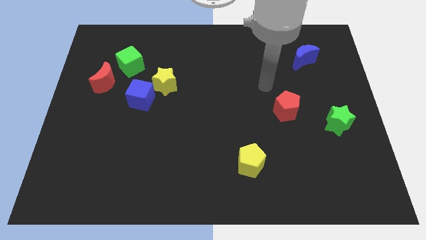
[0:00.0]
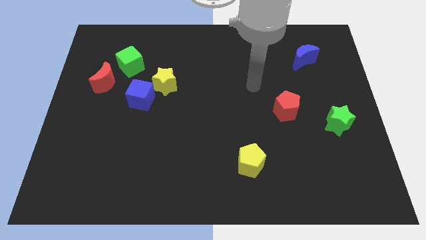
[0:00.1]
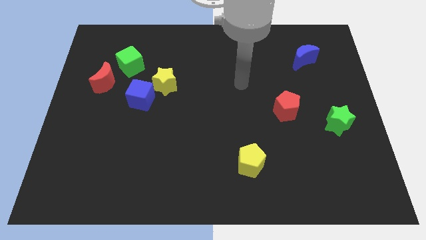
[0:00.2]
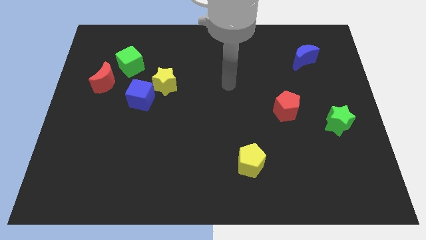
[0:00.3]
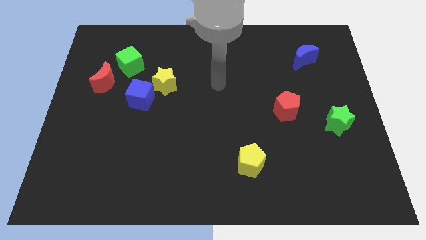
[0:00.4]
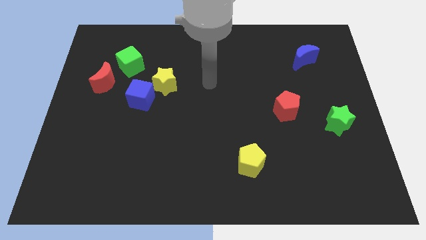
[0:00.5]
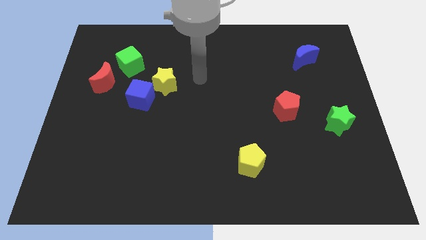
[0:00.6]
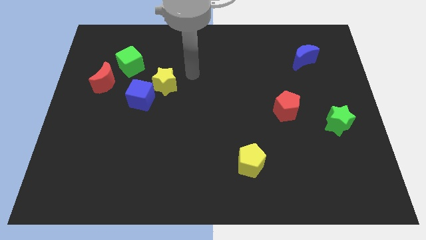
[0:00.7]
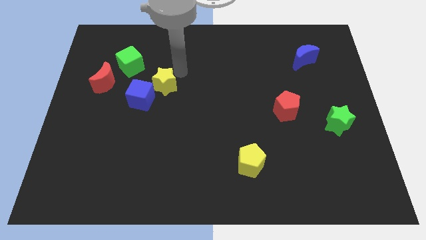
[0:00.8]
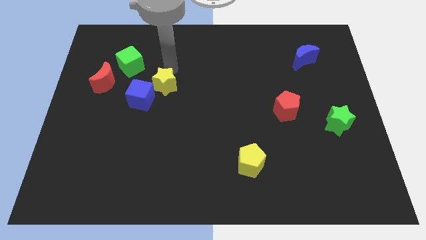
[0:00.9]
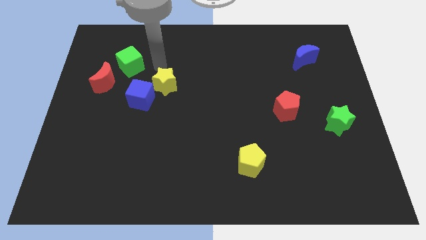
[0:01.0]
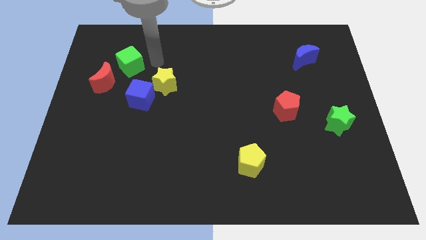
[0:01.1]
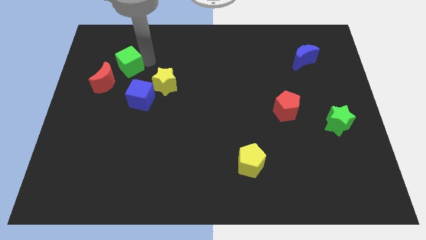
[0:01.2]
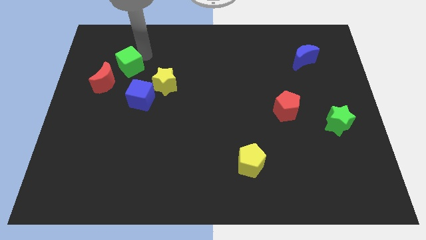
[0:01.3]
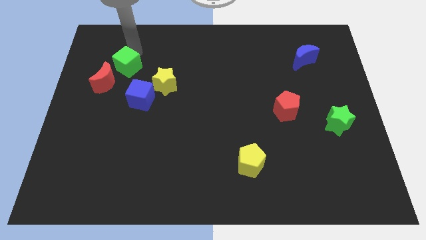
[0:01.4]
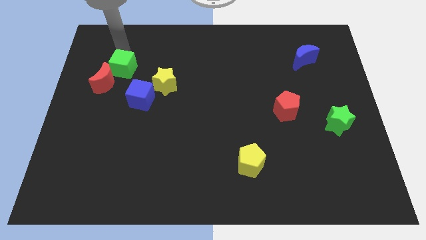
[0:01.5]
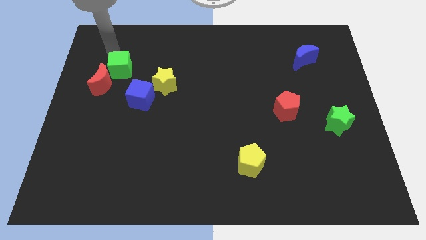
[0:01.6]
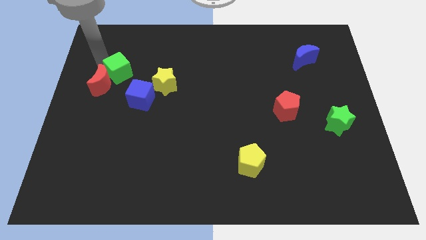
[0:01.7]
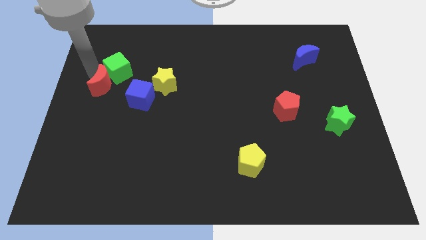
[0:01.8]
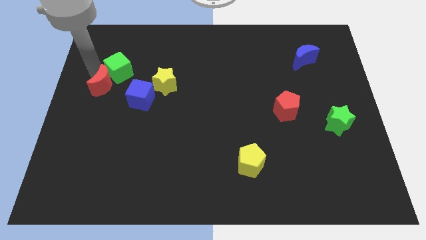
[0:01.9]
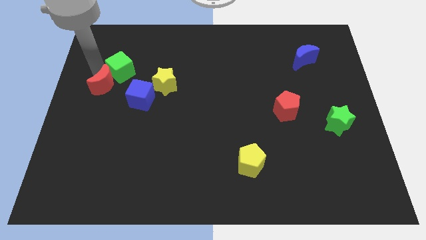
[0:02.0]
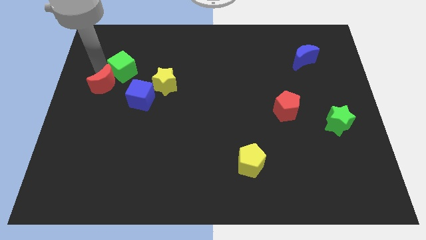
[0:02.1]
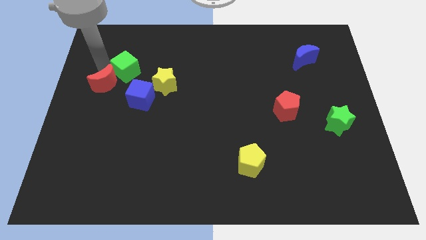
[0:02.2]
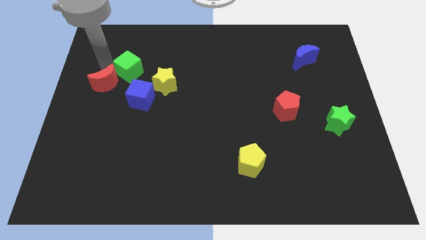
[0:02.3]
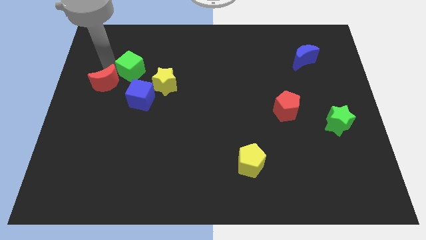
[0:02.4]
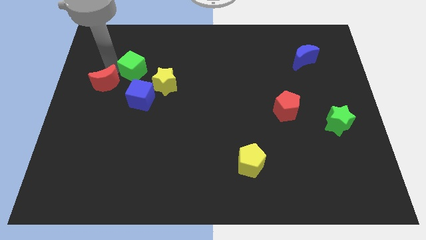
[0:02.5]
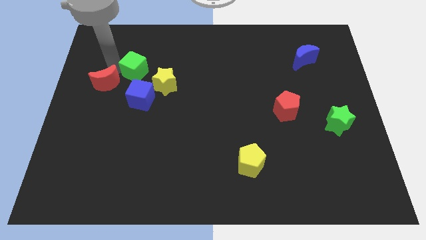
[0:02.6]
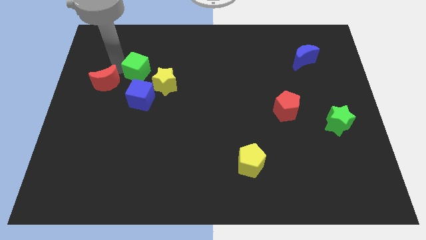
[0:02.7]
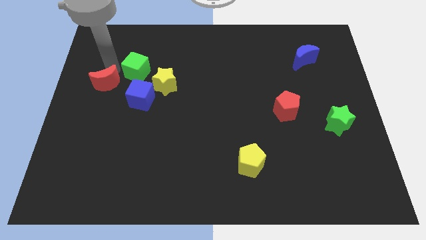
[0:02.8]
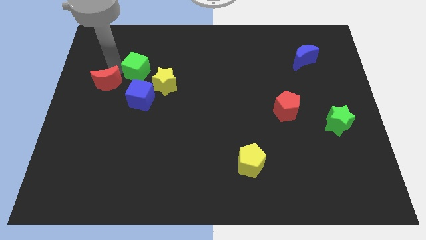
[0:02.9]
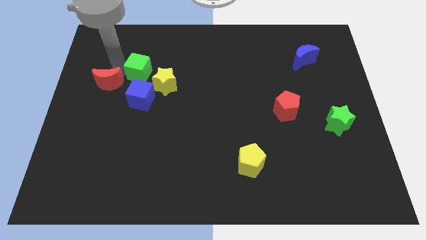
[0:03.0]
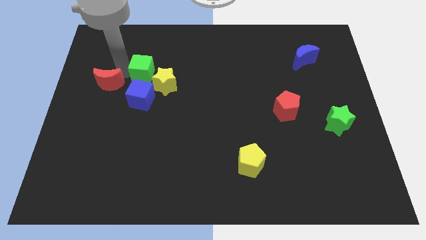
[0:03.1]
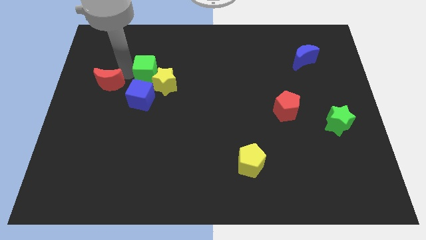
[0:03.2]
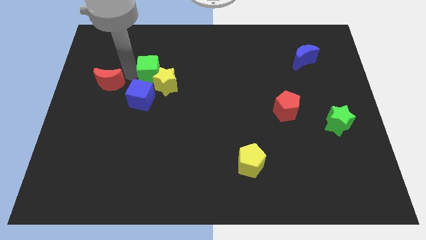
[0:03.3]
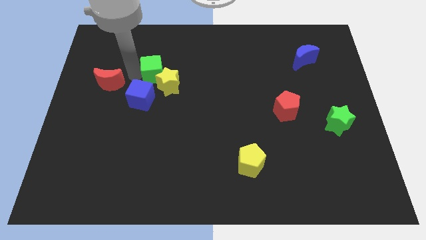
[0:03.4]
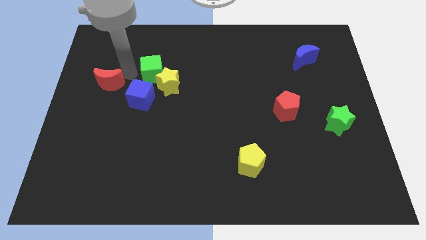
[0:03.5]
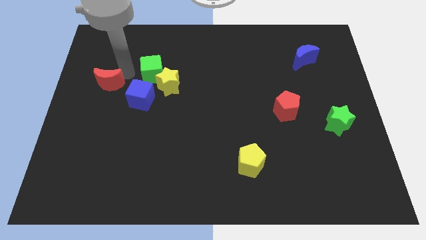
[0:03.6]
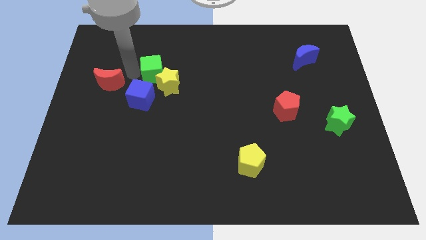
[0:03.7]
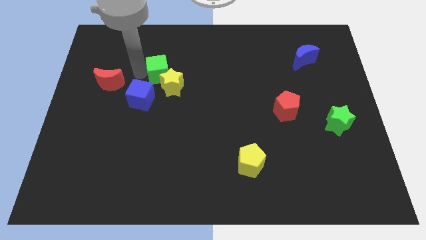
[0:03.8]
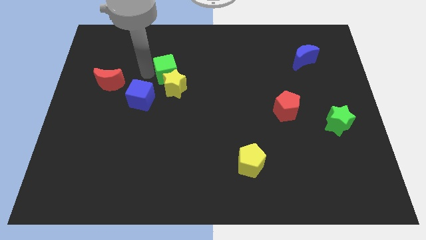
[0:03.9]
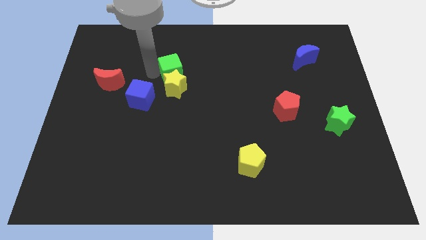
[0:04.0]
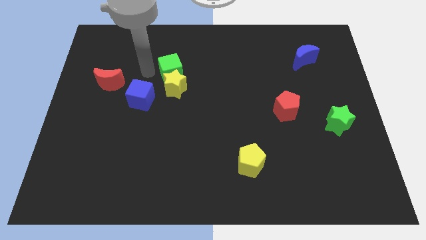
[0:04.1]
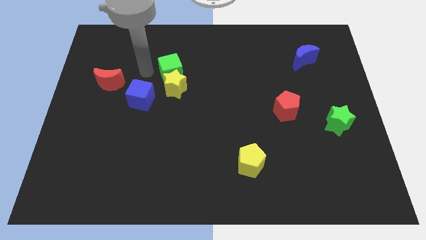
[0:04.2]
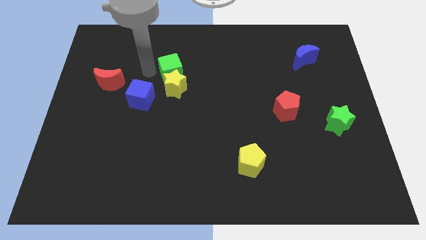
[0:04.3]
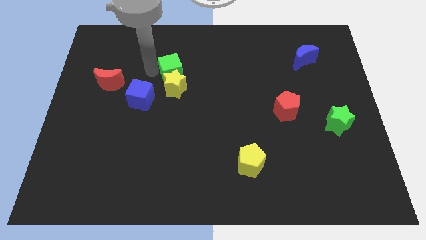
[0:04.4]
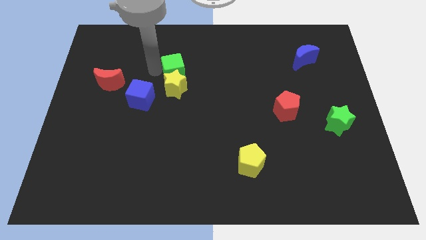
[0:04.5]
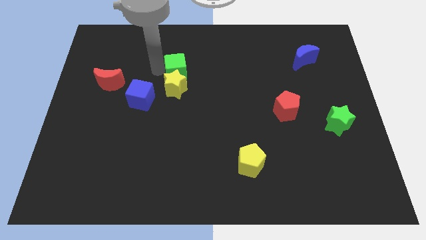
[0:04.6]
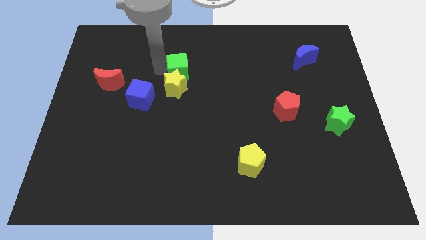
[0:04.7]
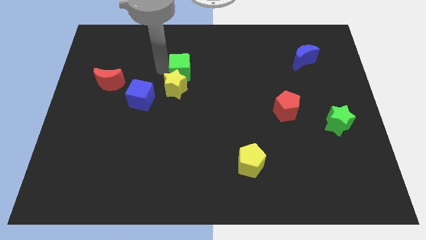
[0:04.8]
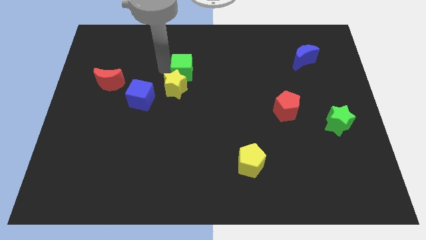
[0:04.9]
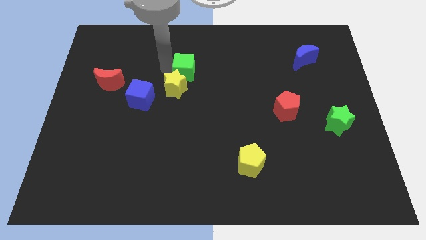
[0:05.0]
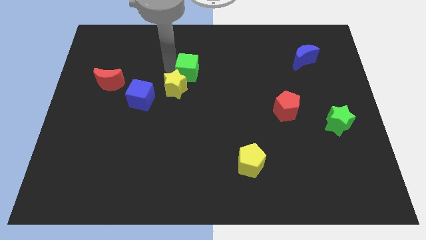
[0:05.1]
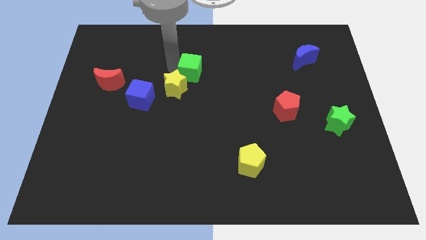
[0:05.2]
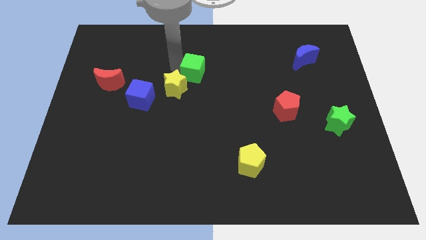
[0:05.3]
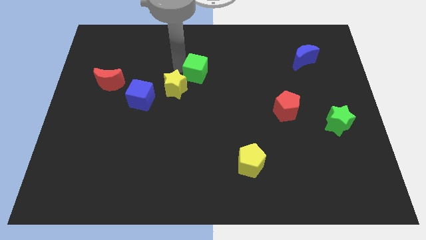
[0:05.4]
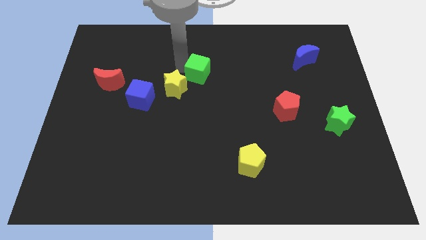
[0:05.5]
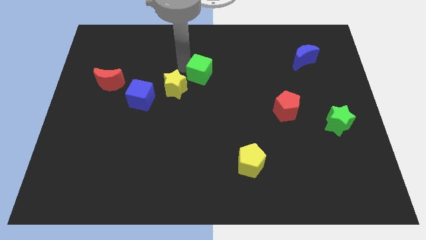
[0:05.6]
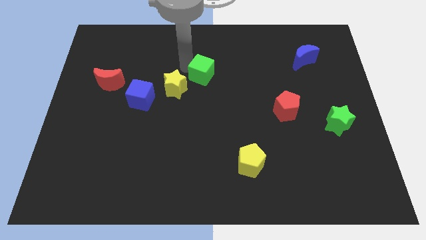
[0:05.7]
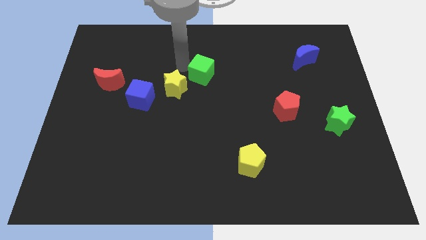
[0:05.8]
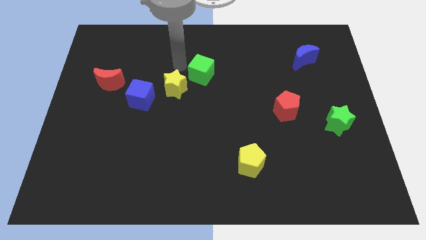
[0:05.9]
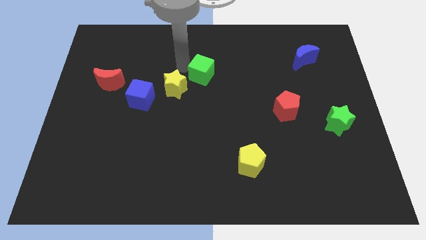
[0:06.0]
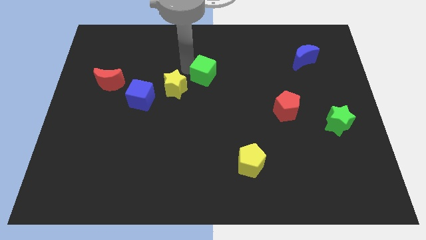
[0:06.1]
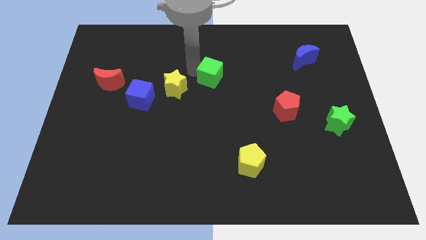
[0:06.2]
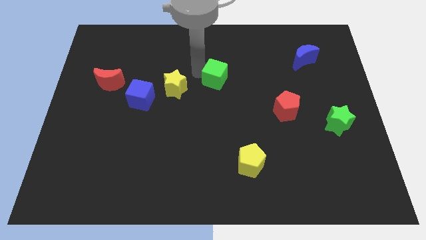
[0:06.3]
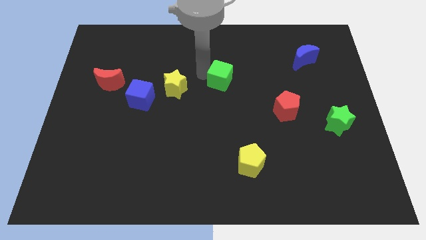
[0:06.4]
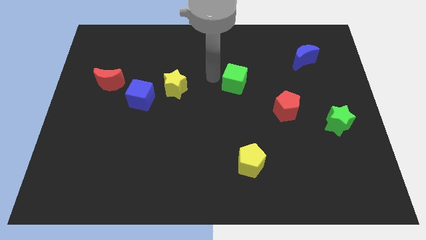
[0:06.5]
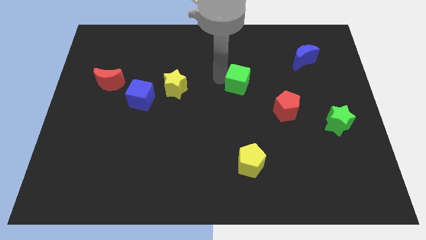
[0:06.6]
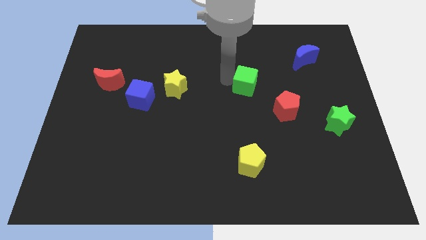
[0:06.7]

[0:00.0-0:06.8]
put the green cube to the top left of the red pentagon

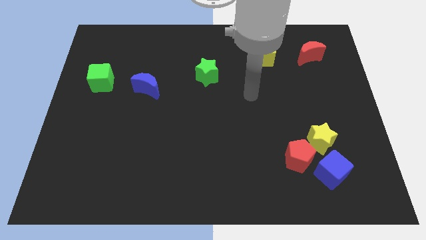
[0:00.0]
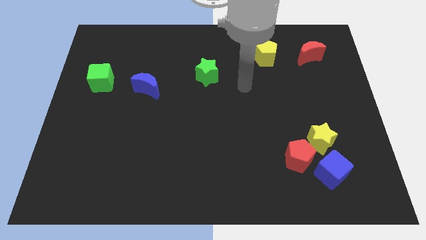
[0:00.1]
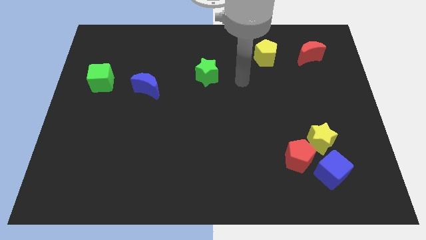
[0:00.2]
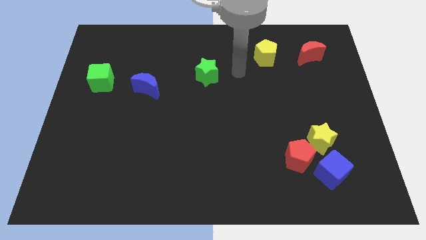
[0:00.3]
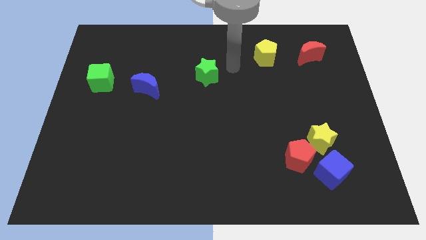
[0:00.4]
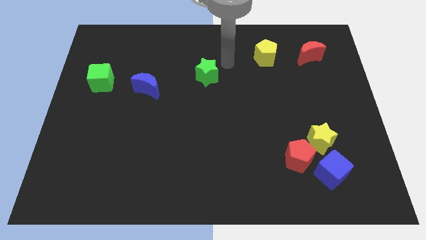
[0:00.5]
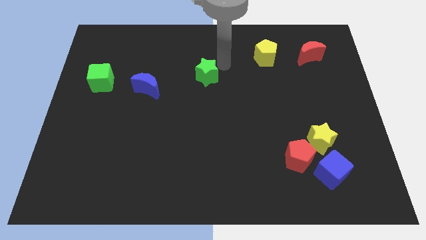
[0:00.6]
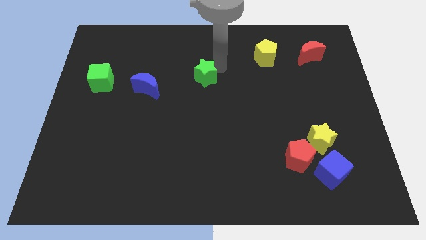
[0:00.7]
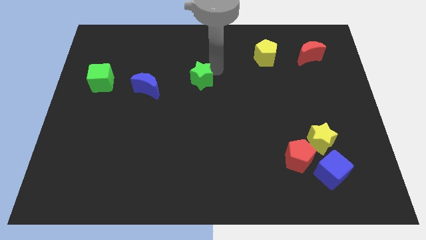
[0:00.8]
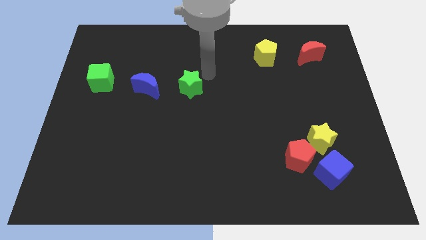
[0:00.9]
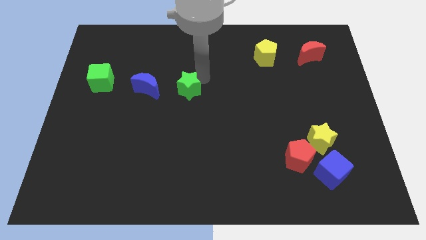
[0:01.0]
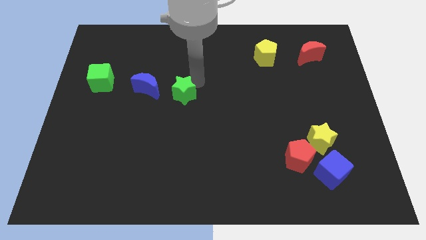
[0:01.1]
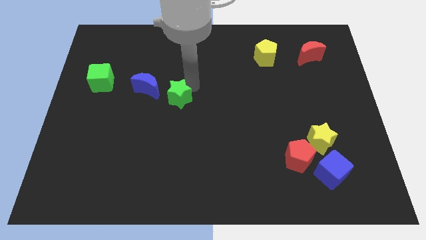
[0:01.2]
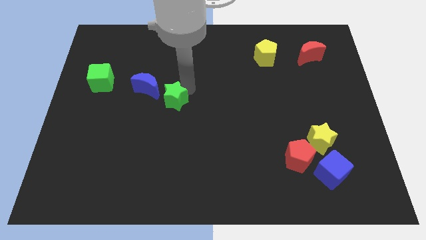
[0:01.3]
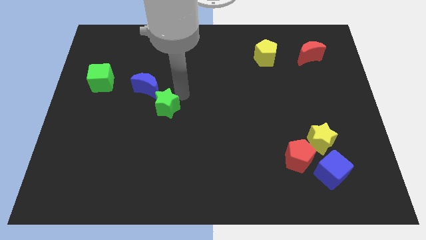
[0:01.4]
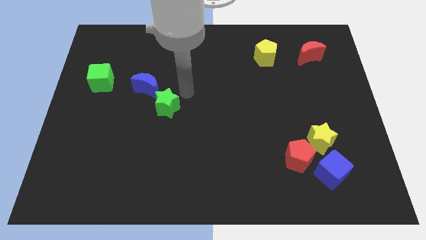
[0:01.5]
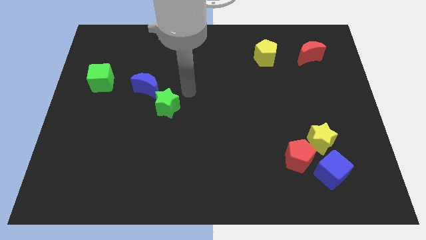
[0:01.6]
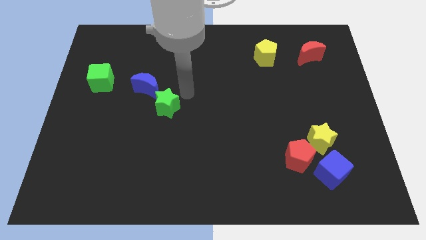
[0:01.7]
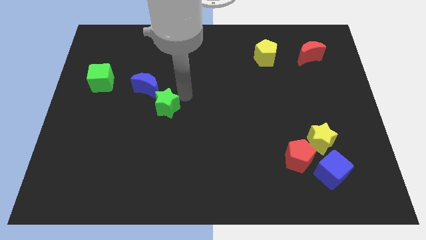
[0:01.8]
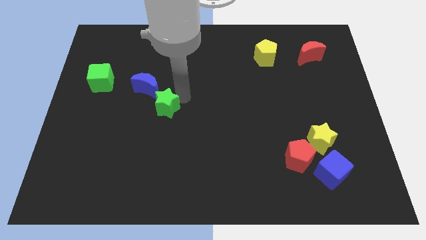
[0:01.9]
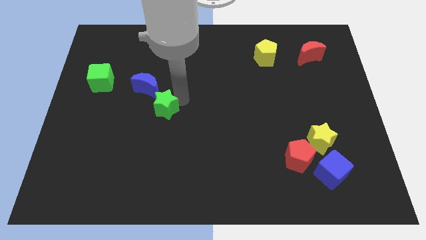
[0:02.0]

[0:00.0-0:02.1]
put the green star below the blue moon
